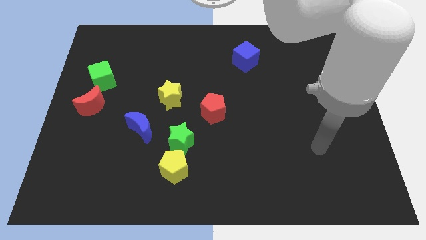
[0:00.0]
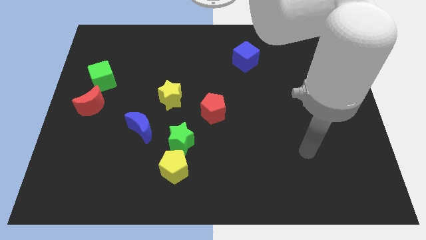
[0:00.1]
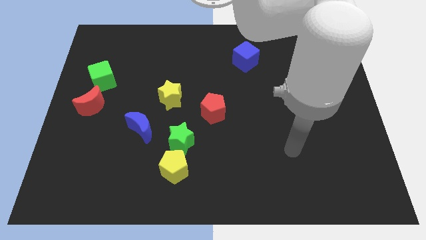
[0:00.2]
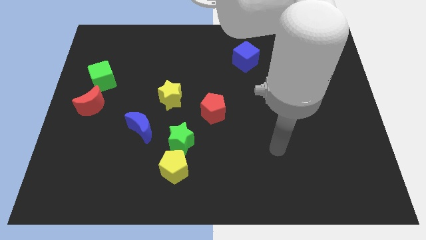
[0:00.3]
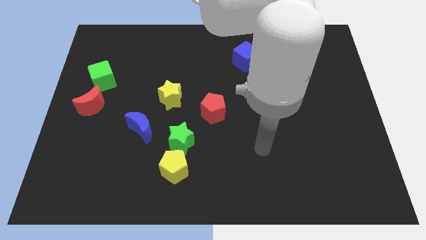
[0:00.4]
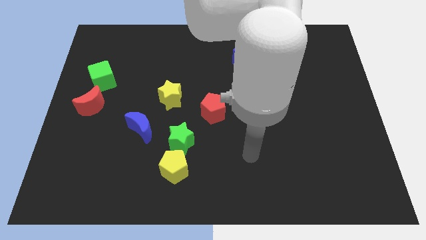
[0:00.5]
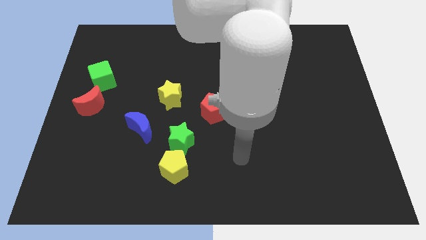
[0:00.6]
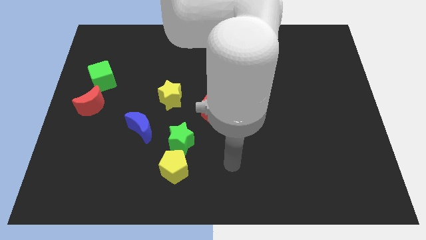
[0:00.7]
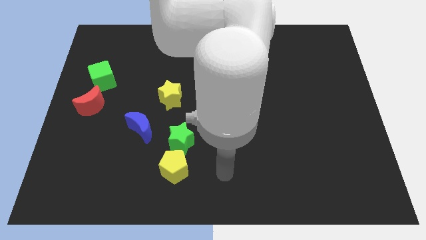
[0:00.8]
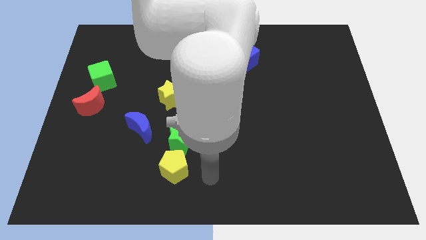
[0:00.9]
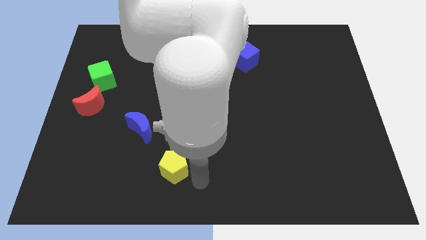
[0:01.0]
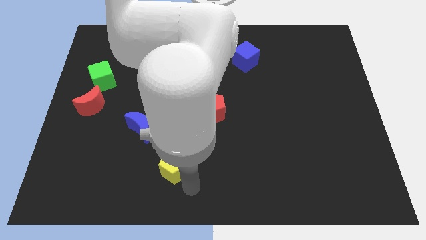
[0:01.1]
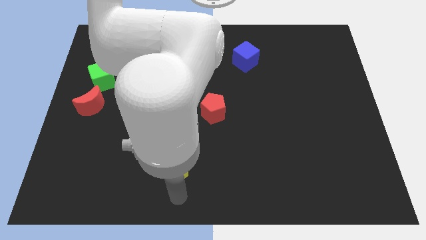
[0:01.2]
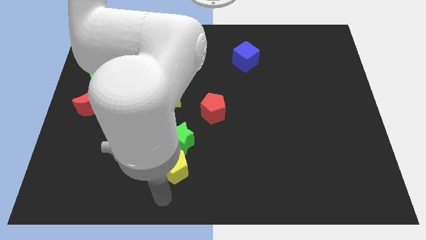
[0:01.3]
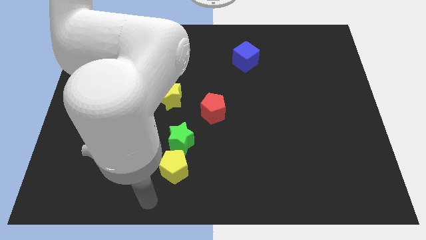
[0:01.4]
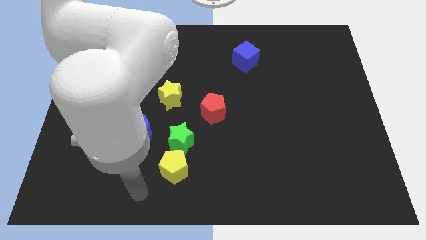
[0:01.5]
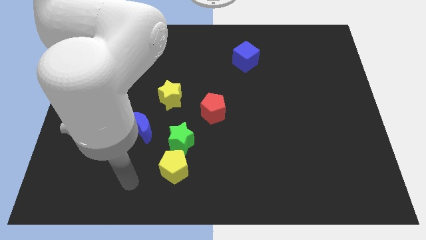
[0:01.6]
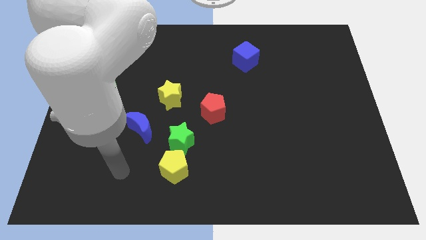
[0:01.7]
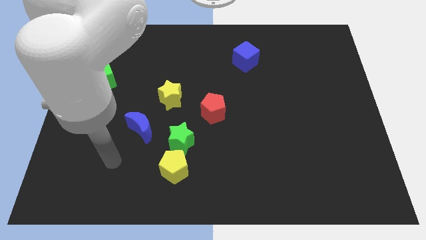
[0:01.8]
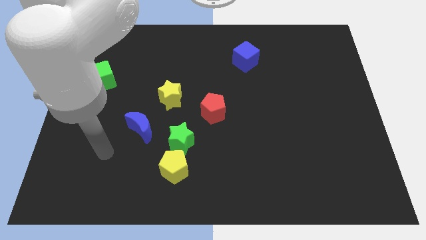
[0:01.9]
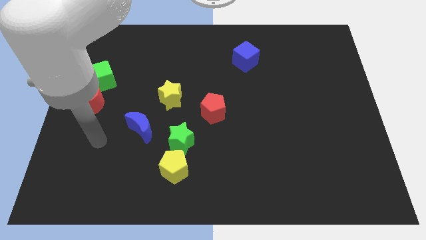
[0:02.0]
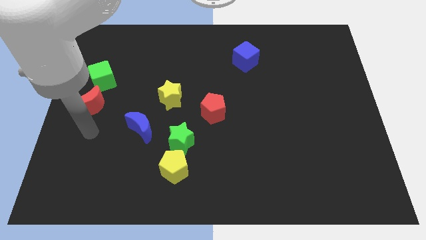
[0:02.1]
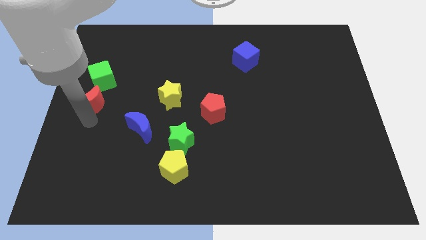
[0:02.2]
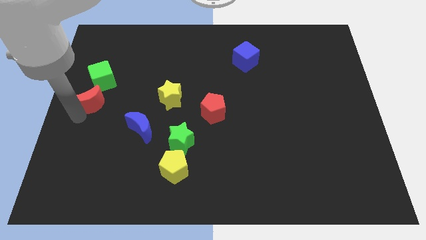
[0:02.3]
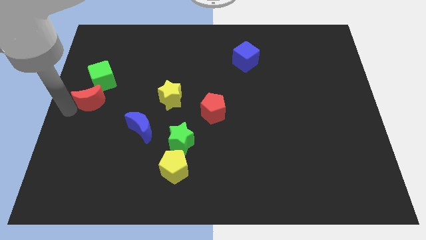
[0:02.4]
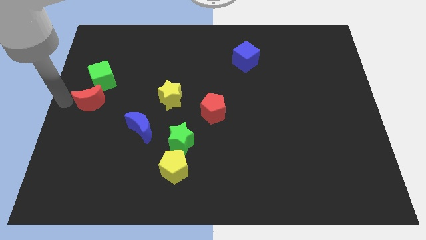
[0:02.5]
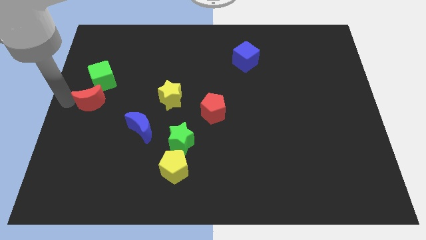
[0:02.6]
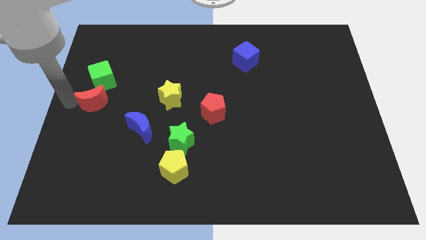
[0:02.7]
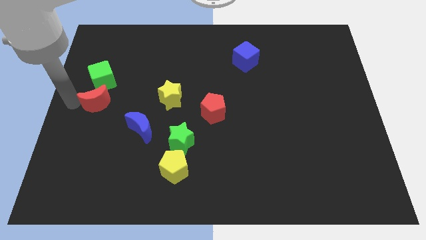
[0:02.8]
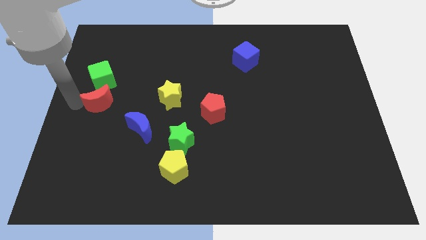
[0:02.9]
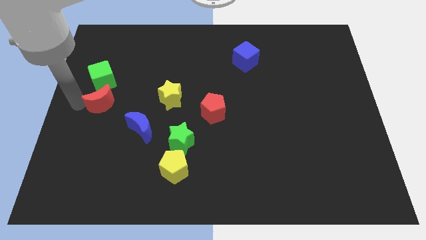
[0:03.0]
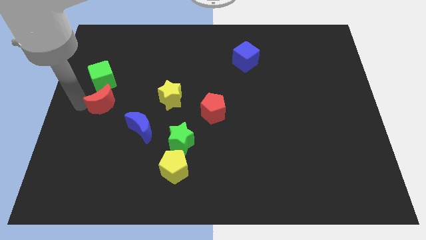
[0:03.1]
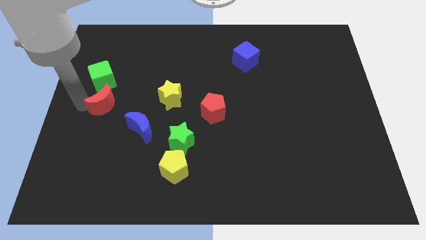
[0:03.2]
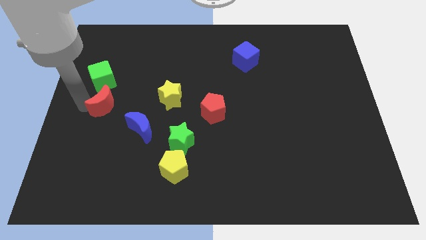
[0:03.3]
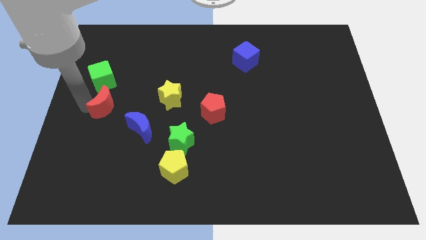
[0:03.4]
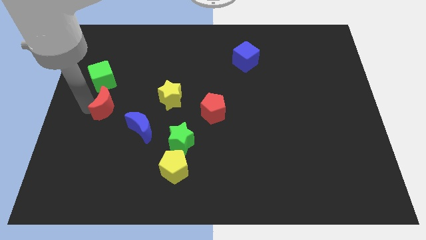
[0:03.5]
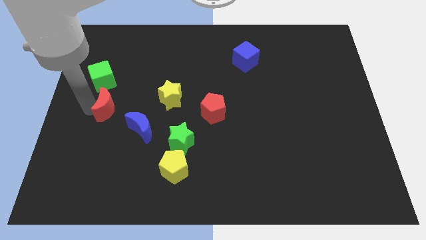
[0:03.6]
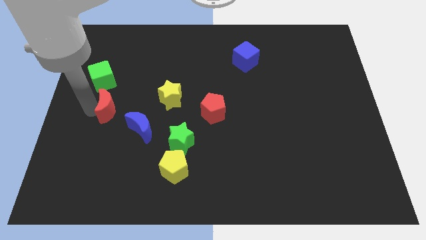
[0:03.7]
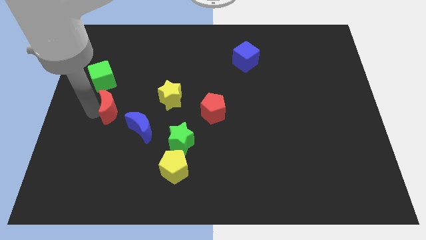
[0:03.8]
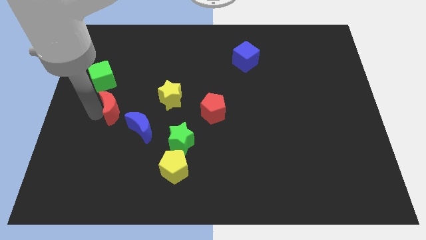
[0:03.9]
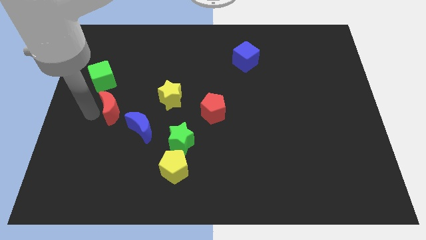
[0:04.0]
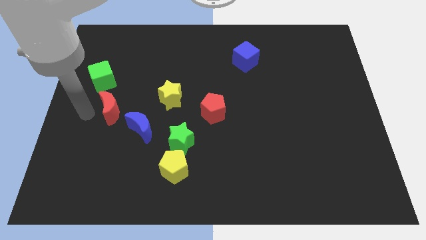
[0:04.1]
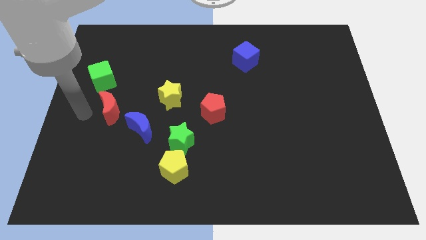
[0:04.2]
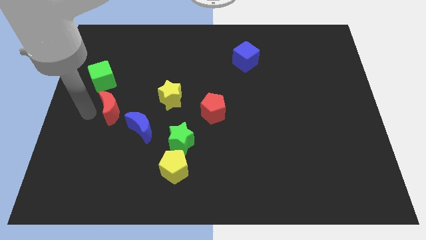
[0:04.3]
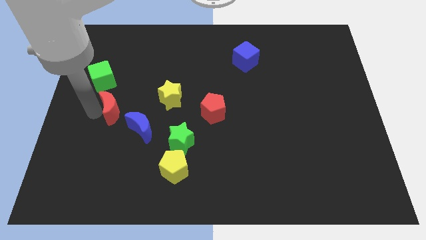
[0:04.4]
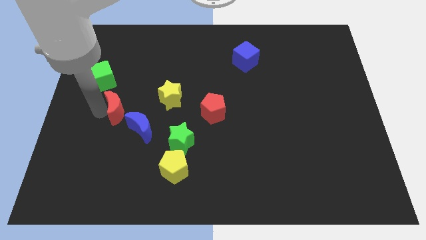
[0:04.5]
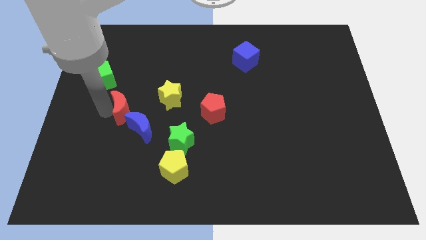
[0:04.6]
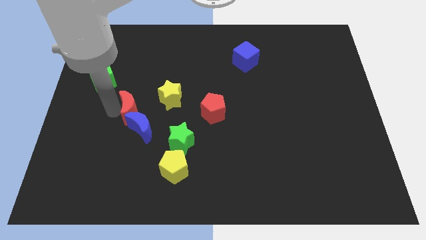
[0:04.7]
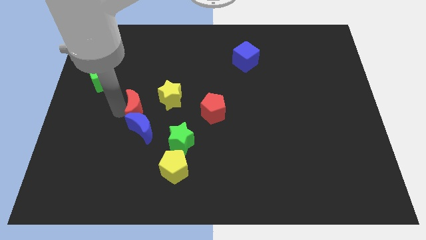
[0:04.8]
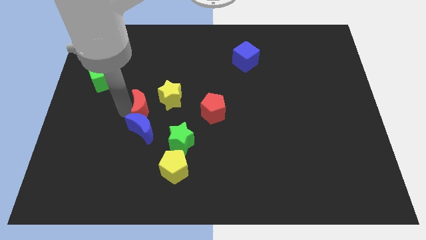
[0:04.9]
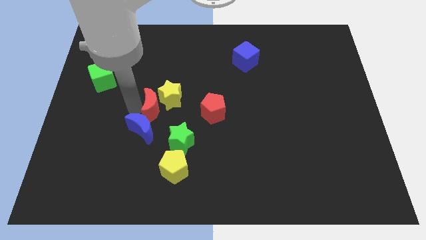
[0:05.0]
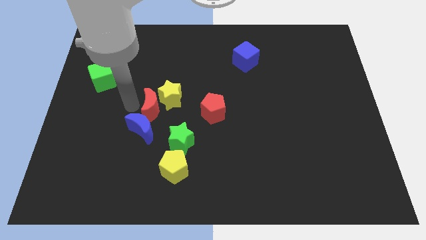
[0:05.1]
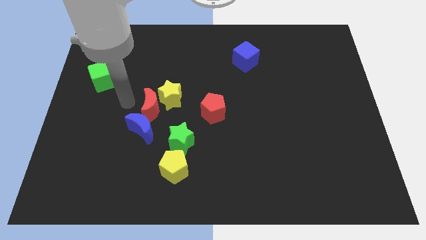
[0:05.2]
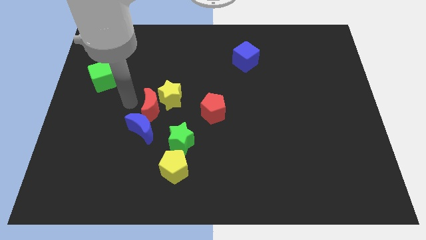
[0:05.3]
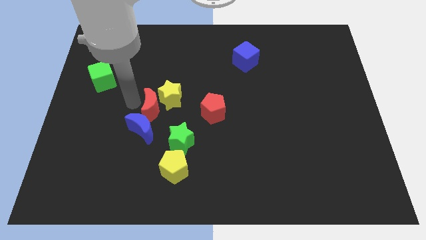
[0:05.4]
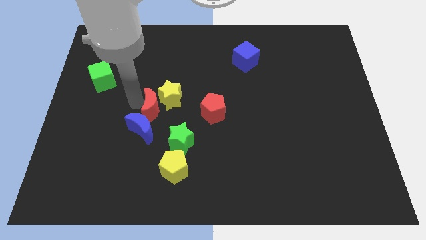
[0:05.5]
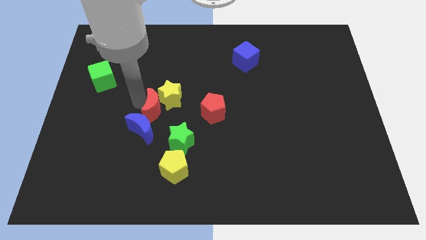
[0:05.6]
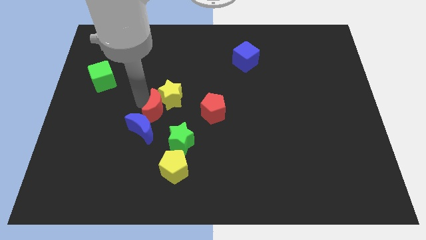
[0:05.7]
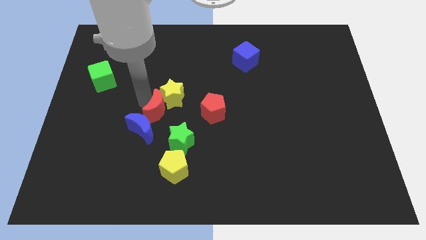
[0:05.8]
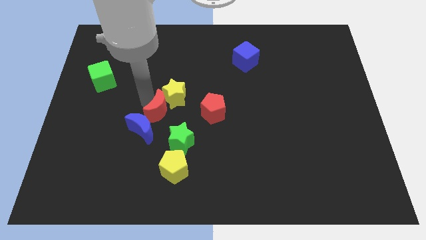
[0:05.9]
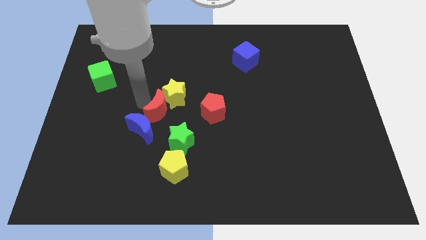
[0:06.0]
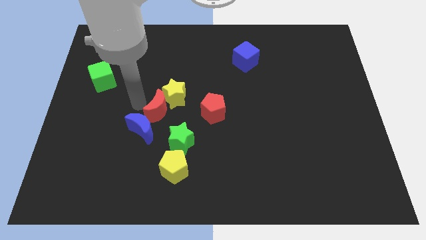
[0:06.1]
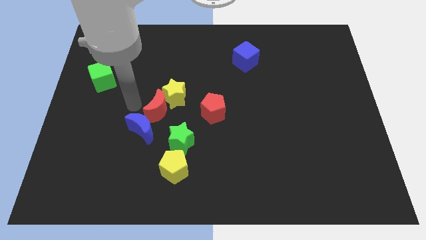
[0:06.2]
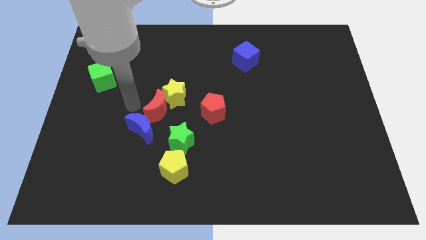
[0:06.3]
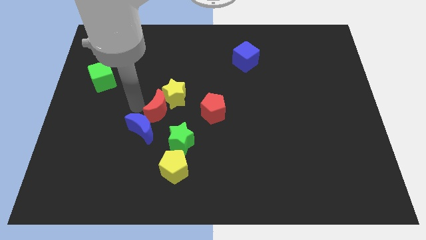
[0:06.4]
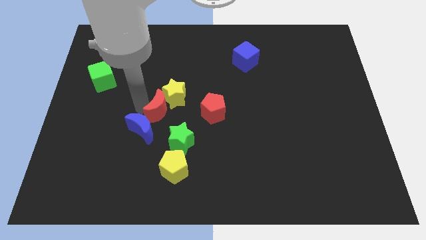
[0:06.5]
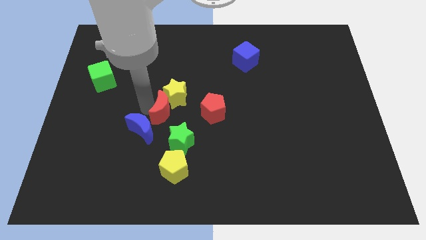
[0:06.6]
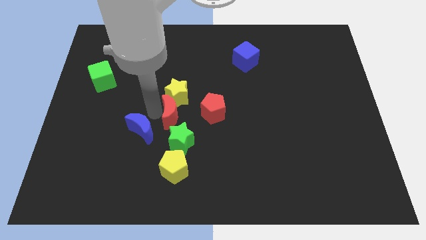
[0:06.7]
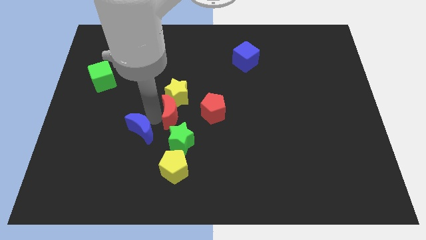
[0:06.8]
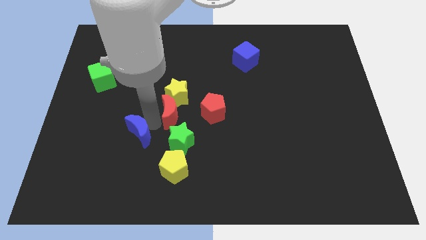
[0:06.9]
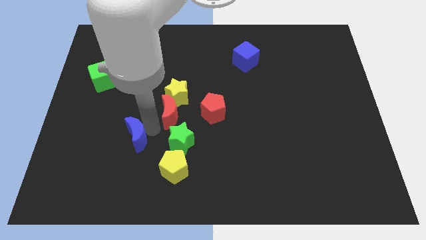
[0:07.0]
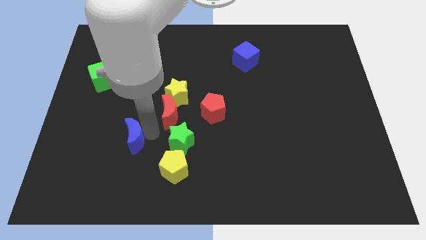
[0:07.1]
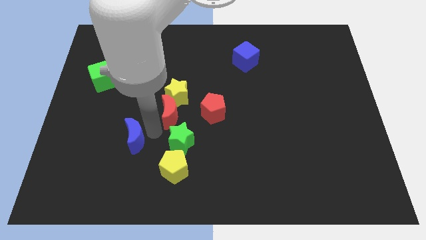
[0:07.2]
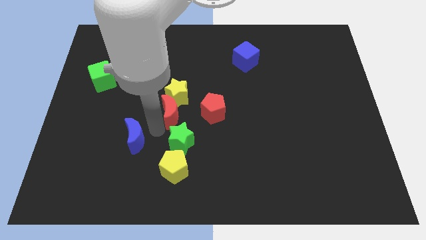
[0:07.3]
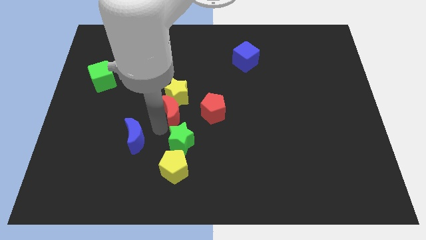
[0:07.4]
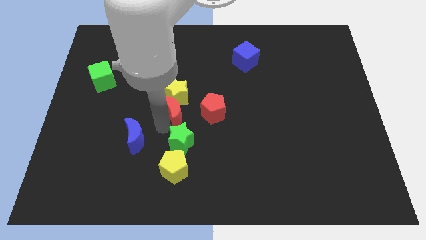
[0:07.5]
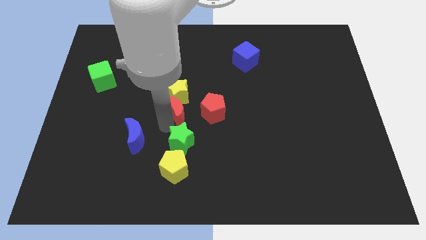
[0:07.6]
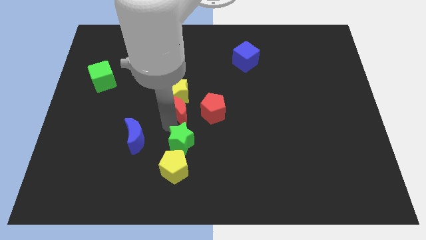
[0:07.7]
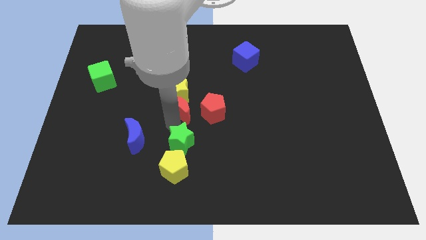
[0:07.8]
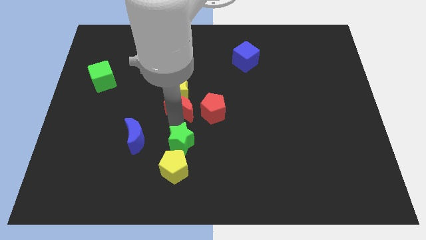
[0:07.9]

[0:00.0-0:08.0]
put the red moon to the top left side of the red pentagon
